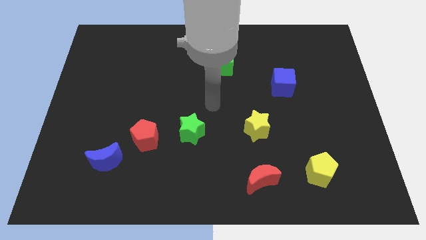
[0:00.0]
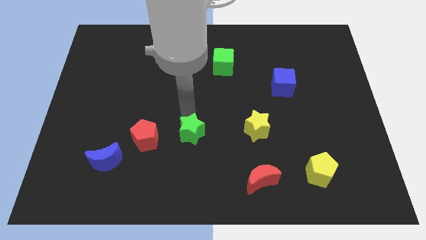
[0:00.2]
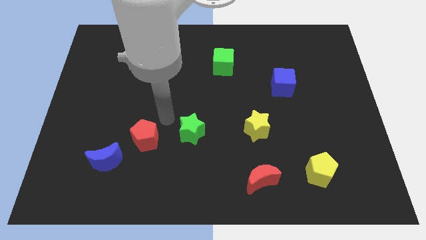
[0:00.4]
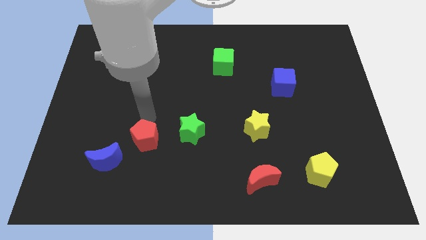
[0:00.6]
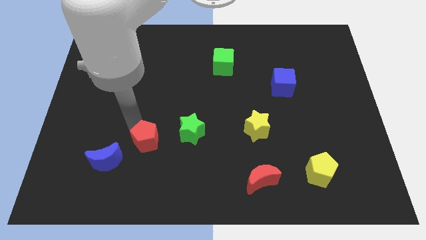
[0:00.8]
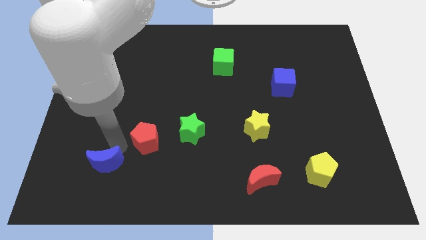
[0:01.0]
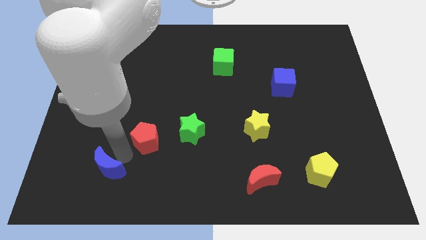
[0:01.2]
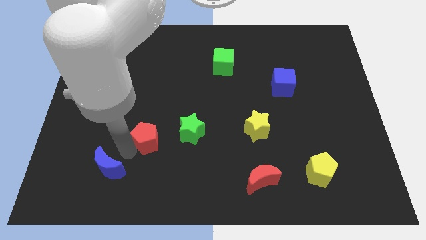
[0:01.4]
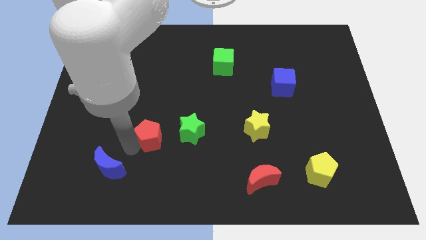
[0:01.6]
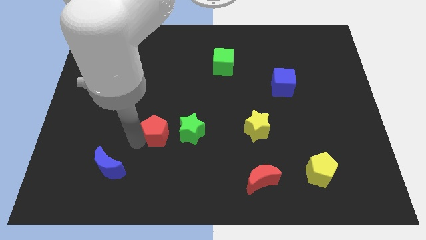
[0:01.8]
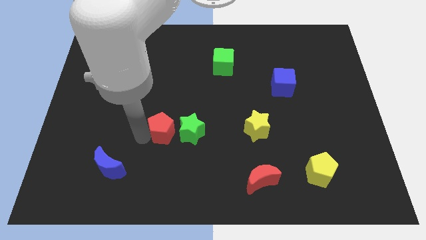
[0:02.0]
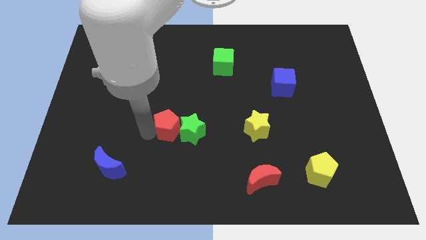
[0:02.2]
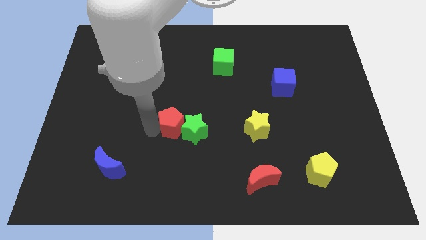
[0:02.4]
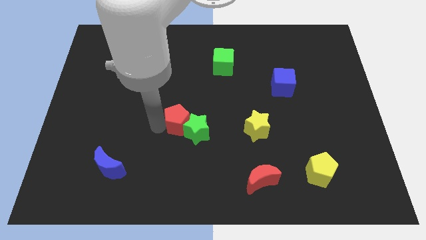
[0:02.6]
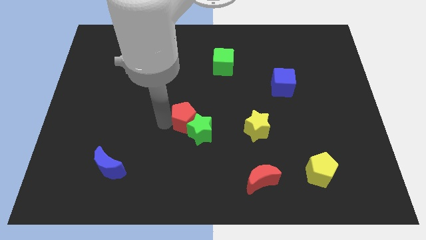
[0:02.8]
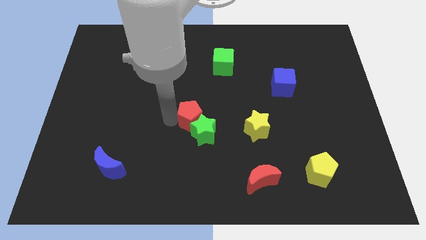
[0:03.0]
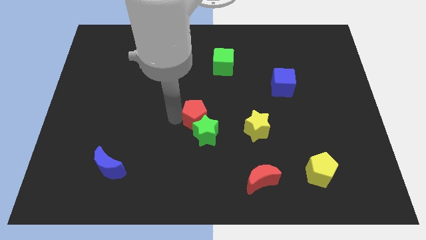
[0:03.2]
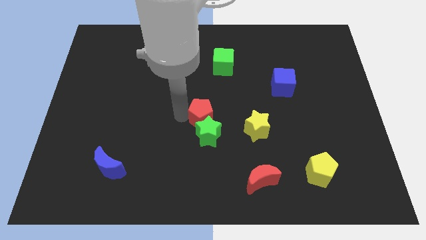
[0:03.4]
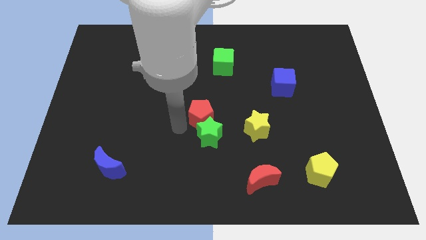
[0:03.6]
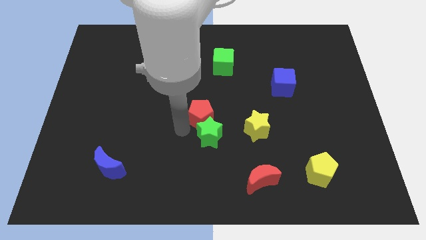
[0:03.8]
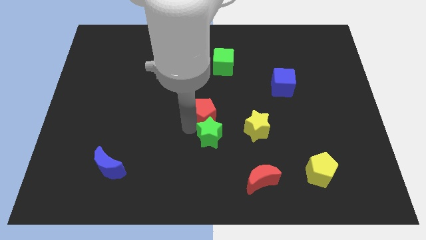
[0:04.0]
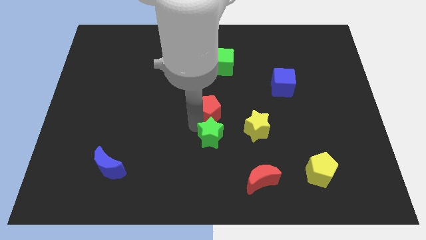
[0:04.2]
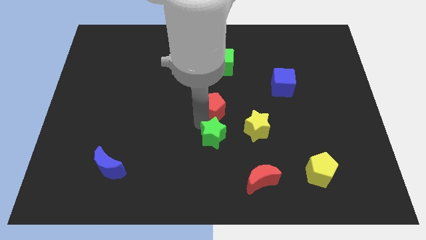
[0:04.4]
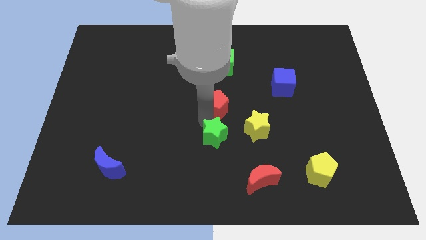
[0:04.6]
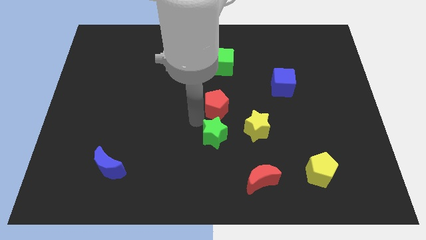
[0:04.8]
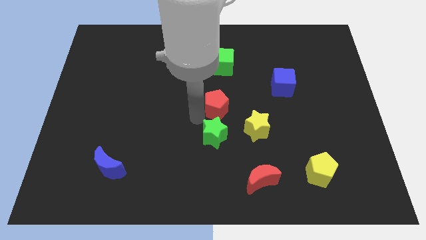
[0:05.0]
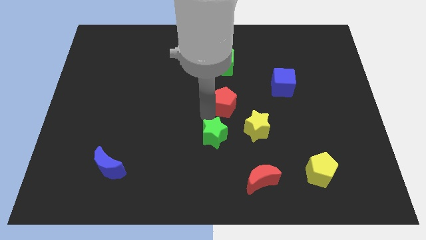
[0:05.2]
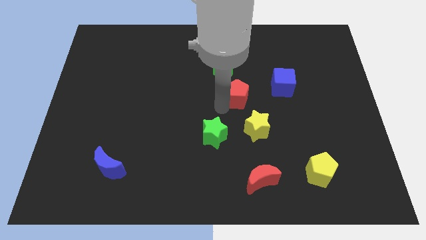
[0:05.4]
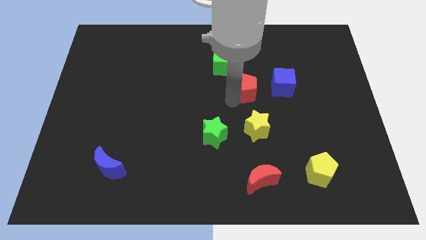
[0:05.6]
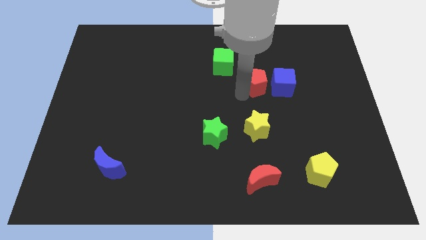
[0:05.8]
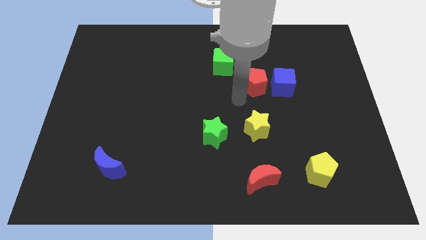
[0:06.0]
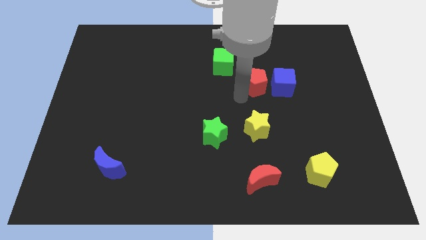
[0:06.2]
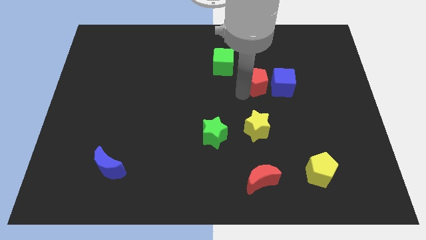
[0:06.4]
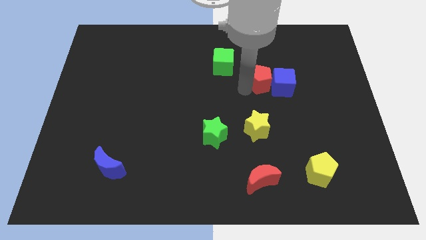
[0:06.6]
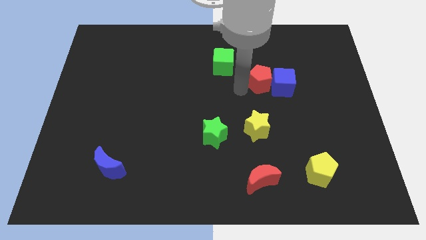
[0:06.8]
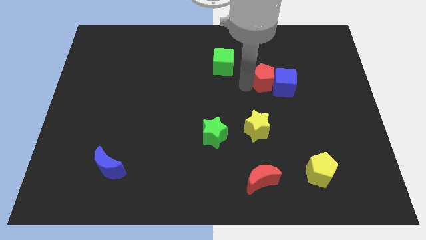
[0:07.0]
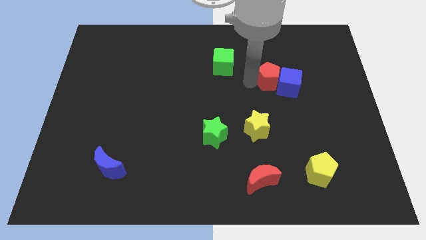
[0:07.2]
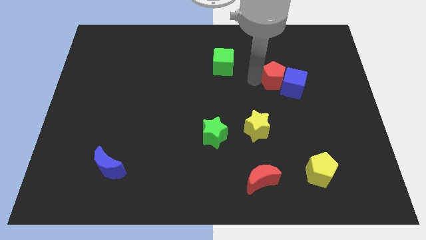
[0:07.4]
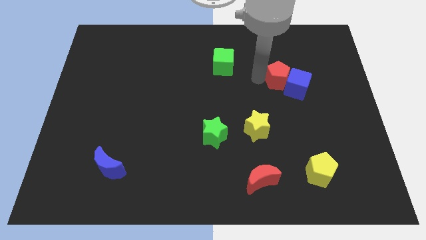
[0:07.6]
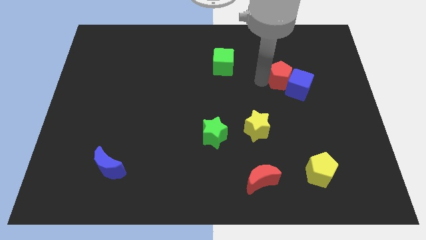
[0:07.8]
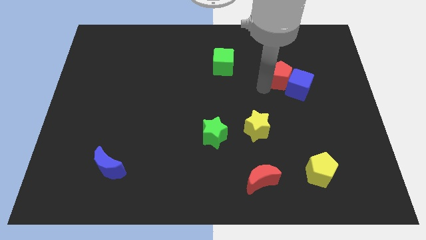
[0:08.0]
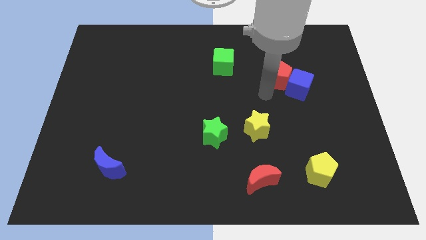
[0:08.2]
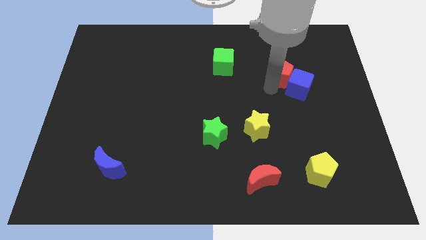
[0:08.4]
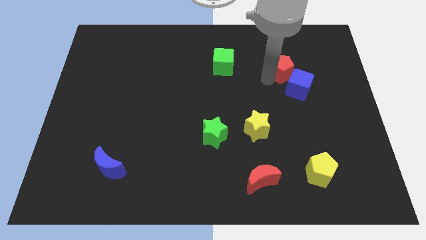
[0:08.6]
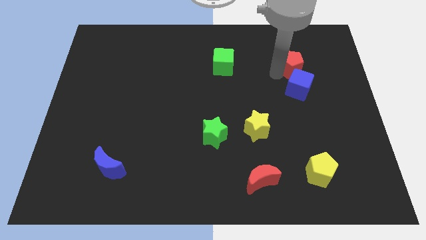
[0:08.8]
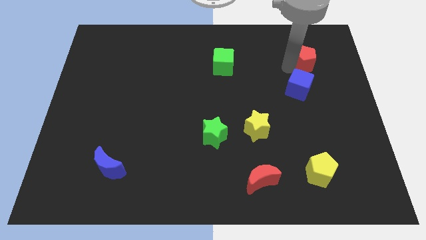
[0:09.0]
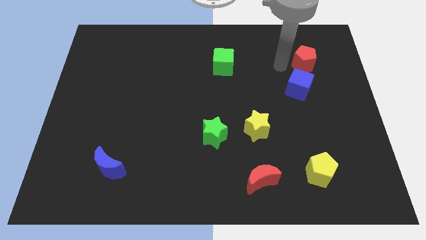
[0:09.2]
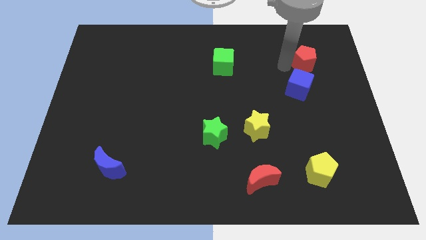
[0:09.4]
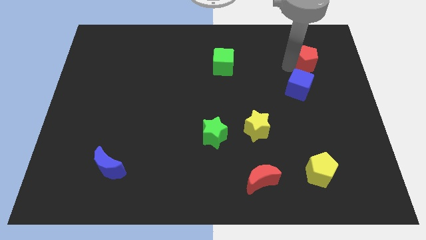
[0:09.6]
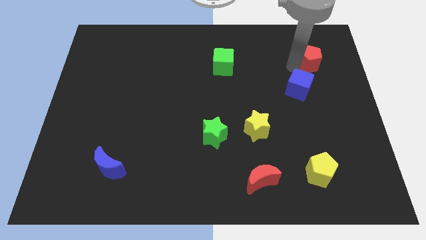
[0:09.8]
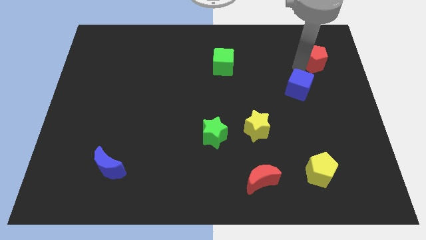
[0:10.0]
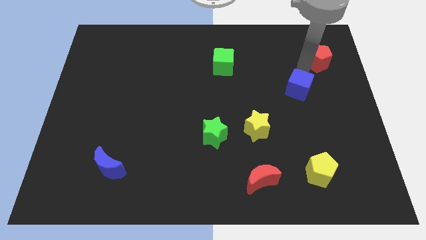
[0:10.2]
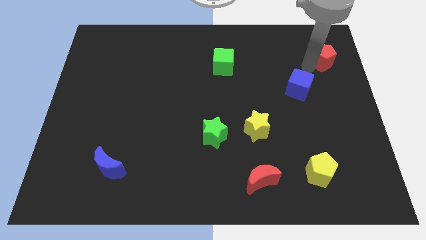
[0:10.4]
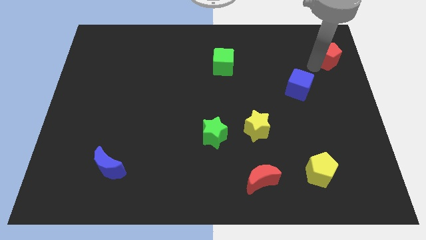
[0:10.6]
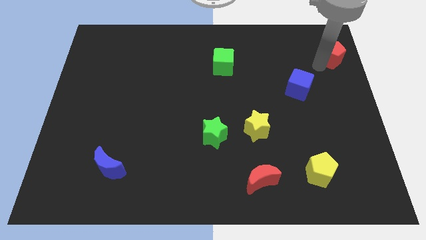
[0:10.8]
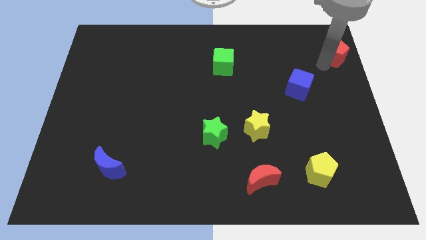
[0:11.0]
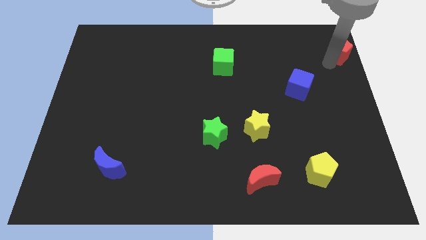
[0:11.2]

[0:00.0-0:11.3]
push the red pentagon to the top right corner

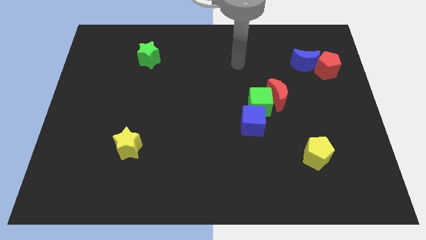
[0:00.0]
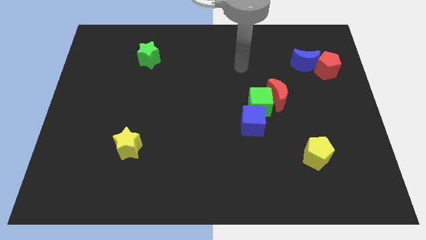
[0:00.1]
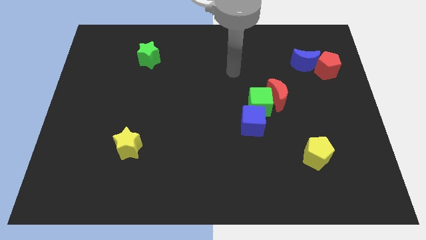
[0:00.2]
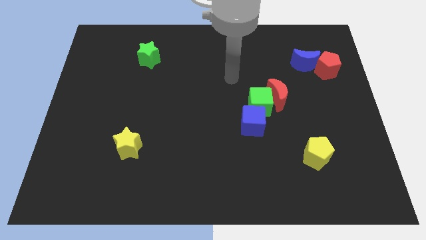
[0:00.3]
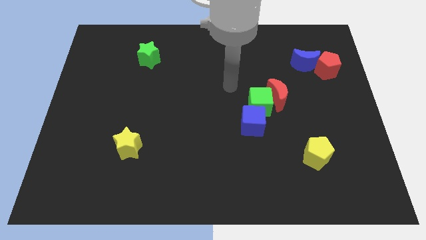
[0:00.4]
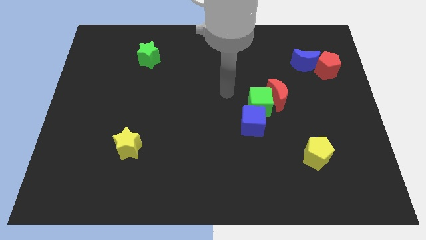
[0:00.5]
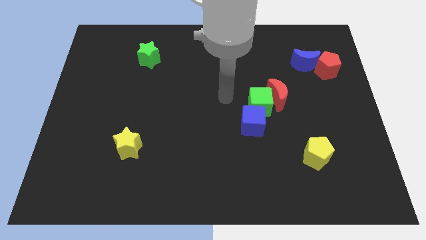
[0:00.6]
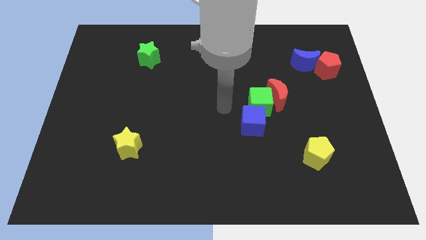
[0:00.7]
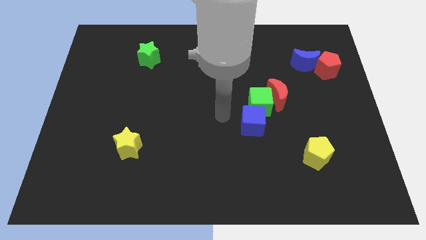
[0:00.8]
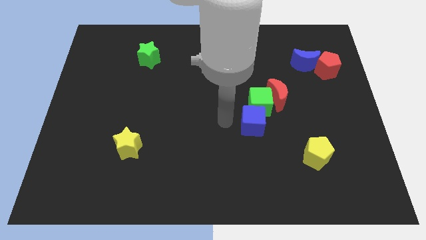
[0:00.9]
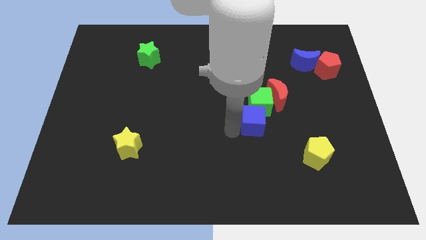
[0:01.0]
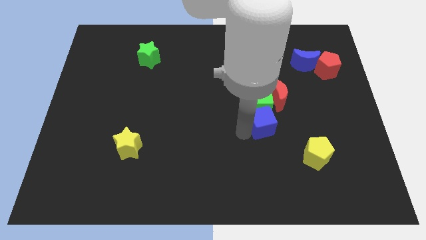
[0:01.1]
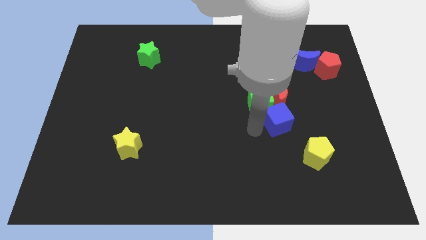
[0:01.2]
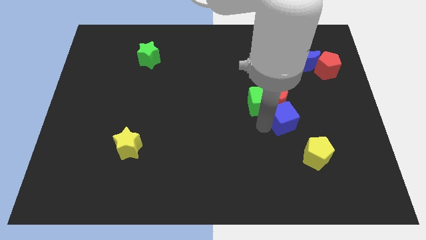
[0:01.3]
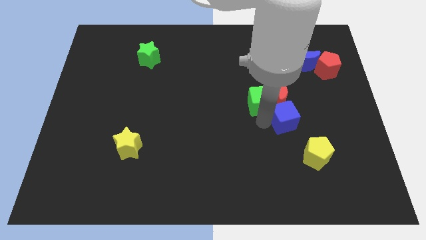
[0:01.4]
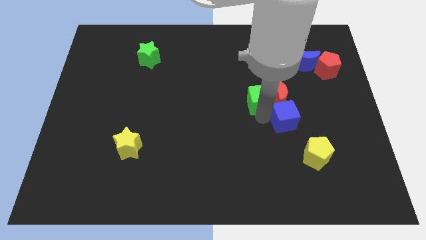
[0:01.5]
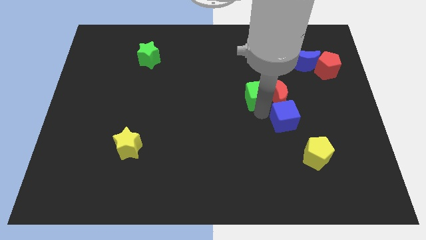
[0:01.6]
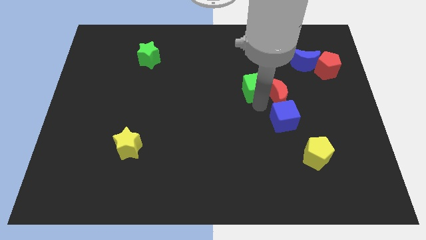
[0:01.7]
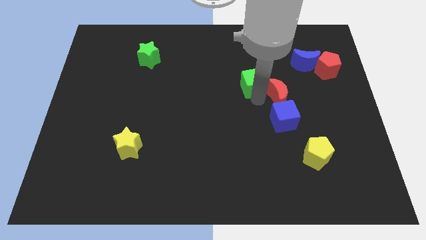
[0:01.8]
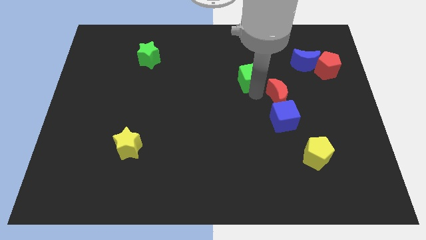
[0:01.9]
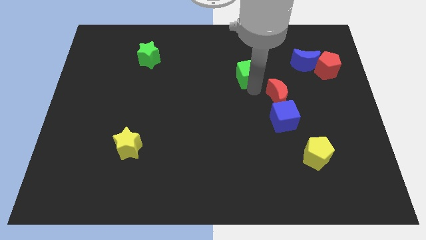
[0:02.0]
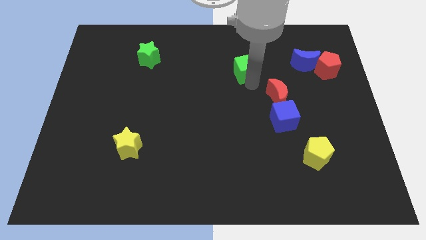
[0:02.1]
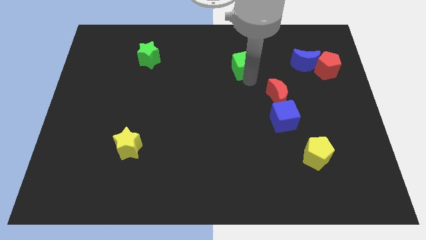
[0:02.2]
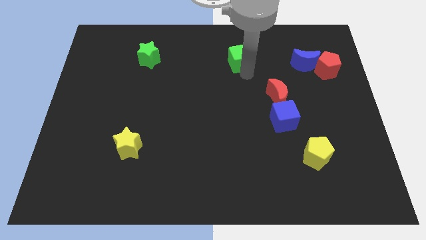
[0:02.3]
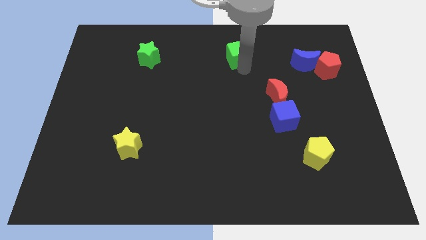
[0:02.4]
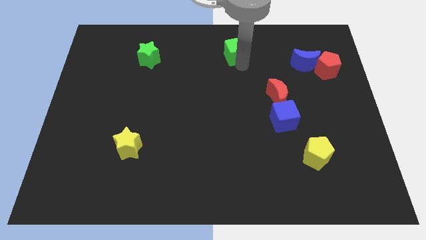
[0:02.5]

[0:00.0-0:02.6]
slide the green cube to the top side
